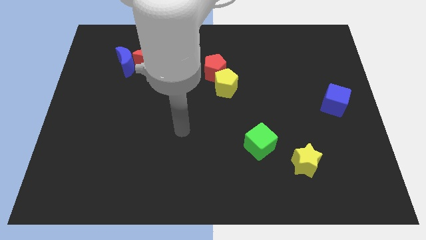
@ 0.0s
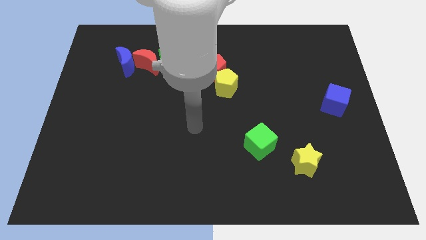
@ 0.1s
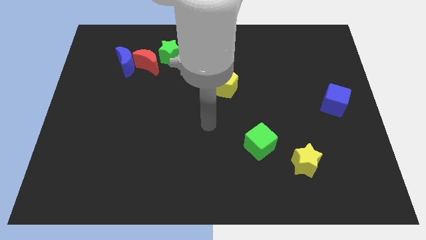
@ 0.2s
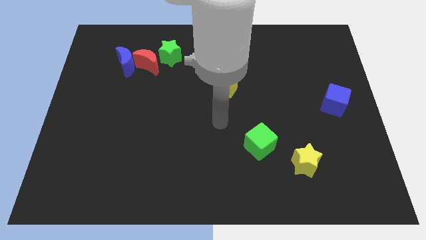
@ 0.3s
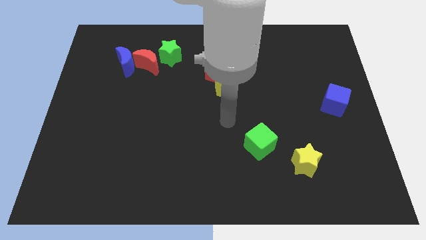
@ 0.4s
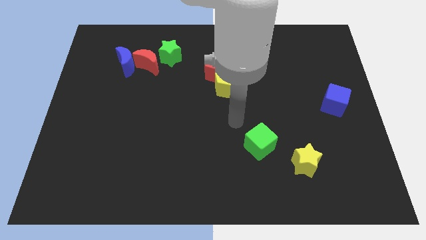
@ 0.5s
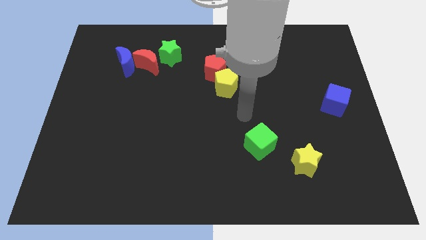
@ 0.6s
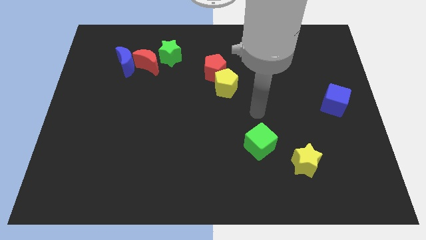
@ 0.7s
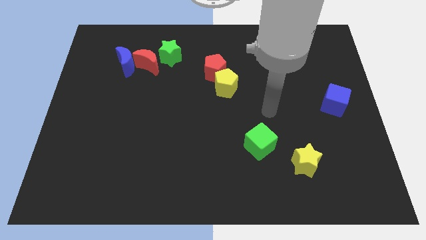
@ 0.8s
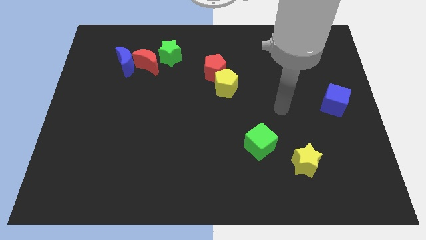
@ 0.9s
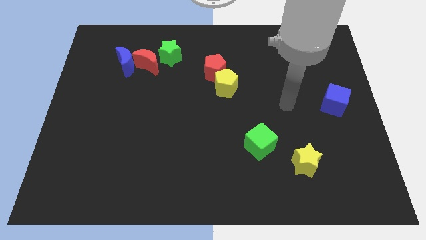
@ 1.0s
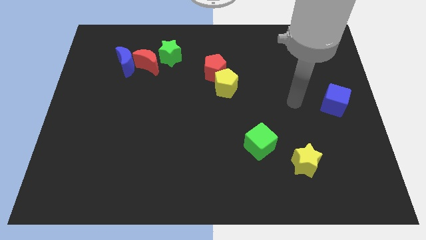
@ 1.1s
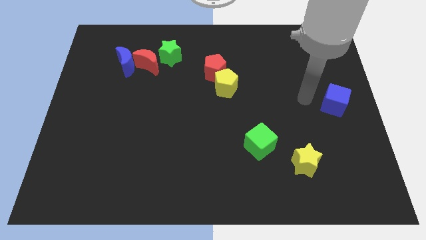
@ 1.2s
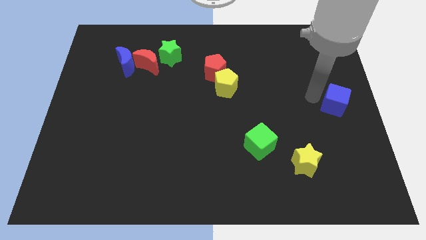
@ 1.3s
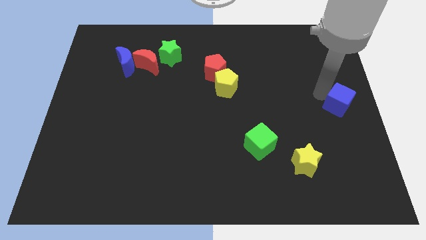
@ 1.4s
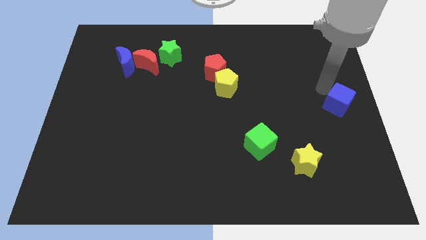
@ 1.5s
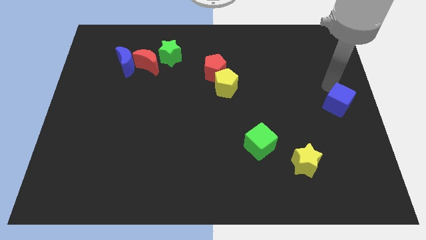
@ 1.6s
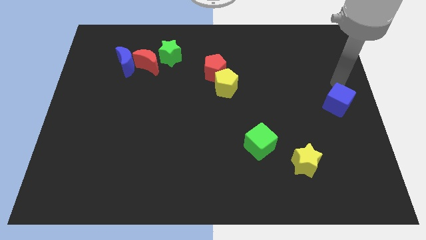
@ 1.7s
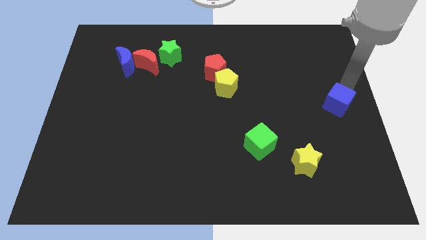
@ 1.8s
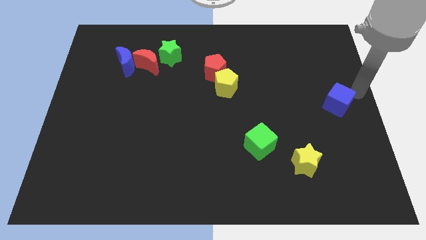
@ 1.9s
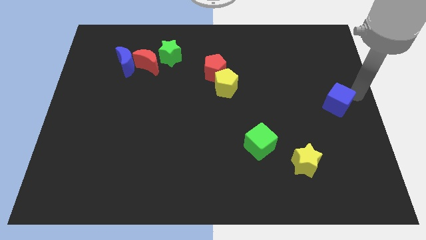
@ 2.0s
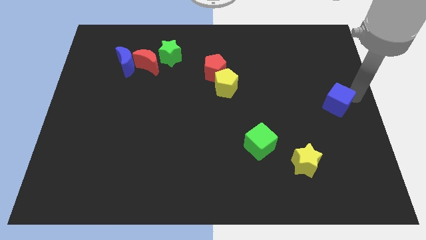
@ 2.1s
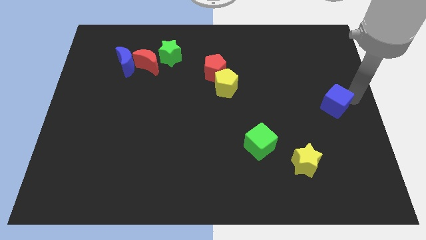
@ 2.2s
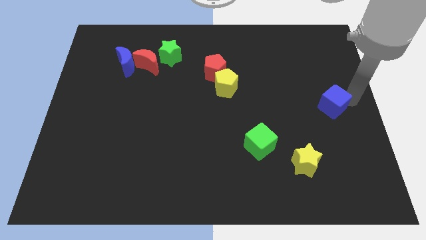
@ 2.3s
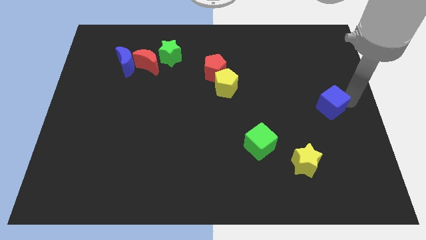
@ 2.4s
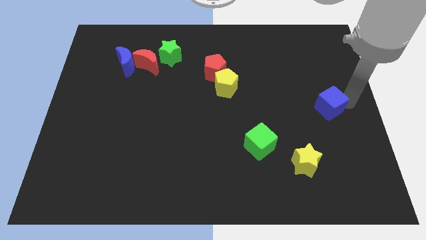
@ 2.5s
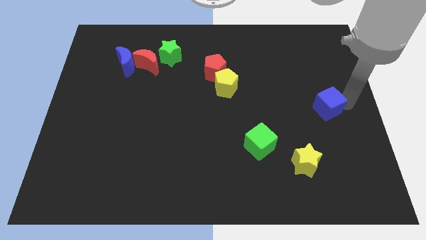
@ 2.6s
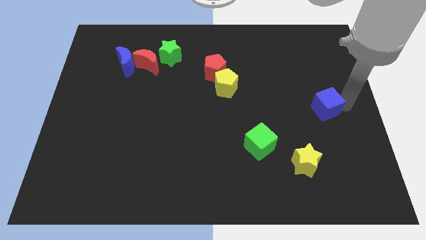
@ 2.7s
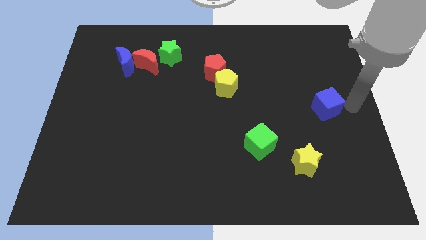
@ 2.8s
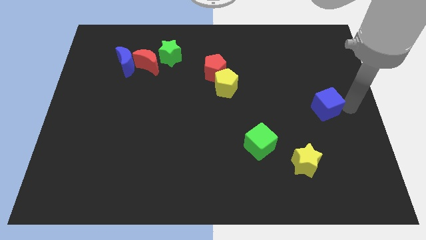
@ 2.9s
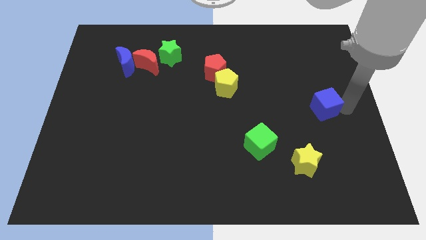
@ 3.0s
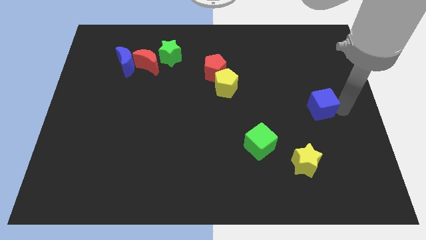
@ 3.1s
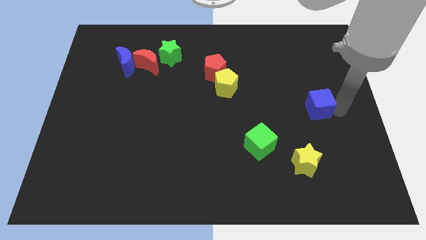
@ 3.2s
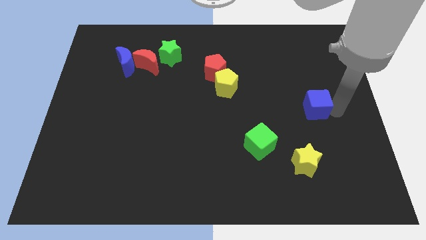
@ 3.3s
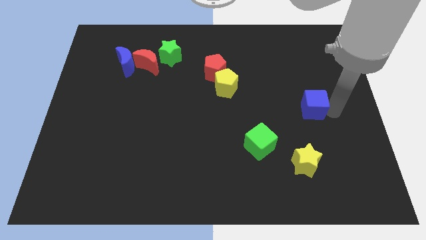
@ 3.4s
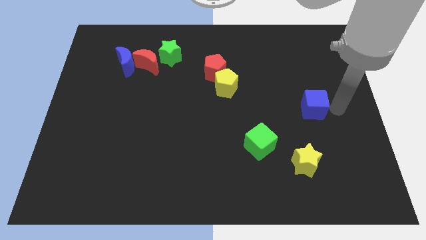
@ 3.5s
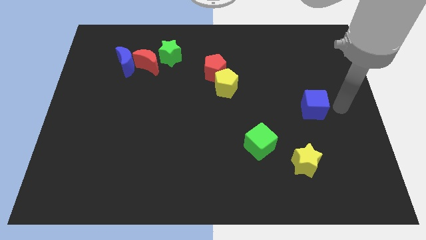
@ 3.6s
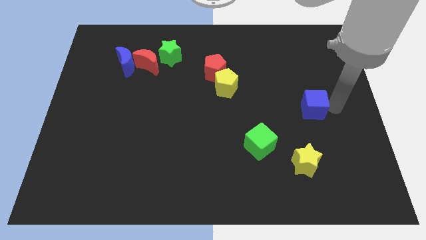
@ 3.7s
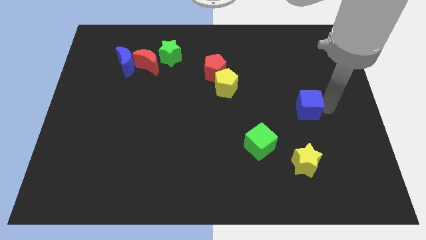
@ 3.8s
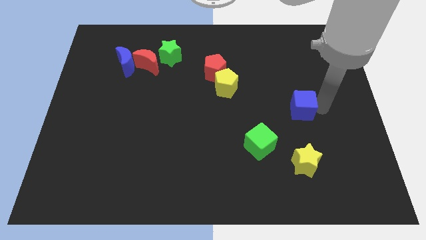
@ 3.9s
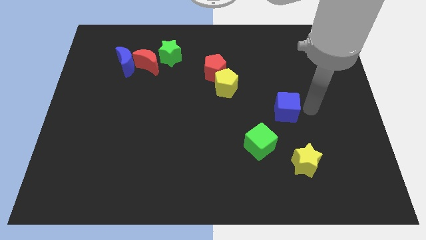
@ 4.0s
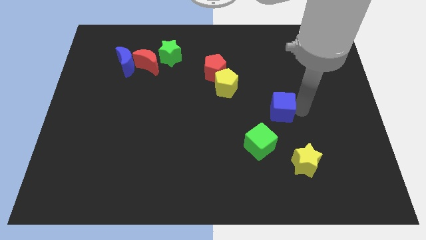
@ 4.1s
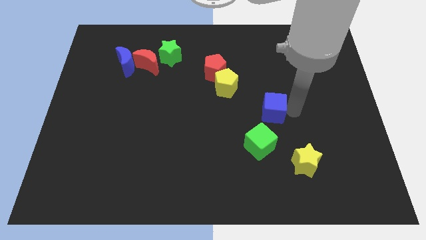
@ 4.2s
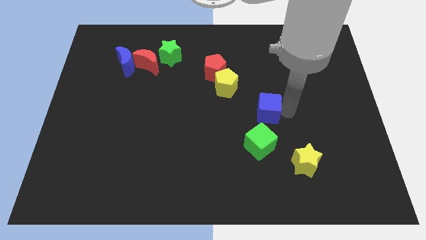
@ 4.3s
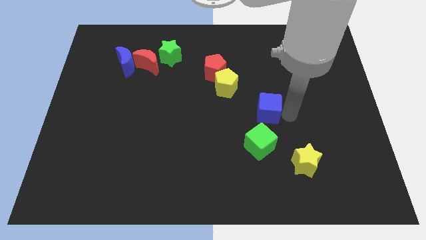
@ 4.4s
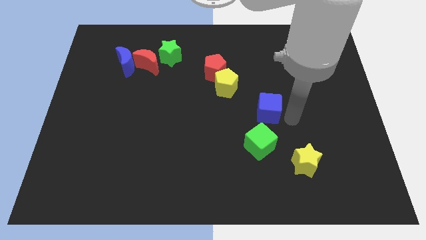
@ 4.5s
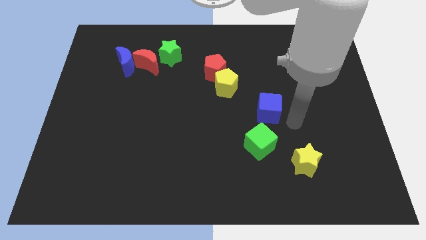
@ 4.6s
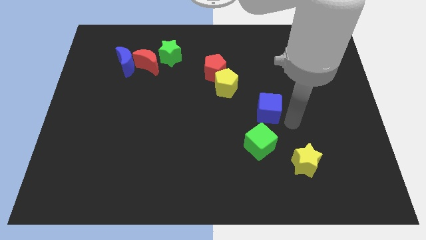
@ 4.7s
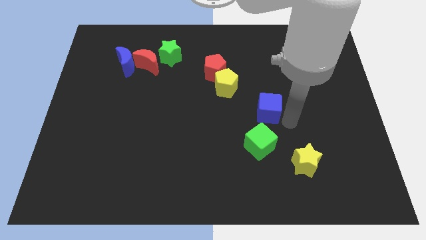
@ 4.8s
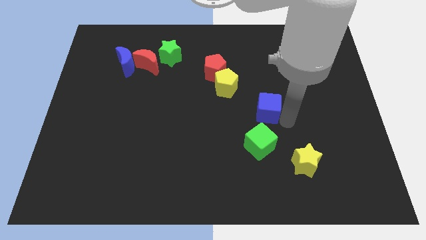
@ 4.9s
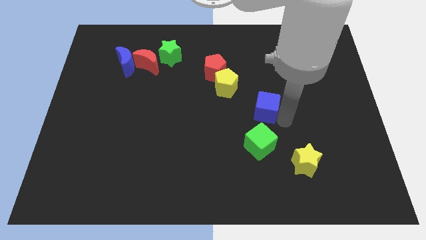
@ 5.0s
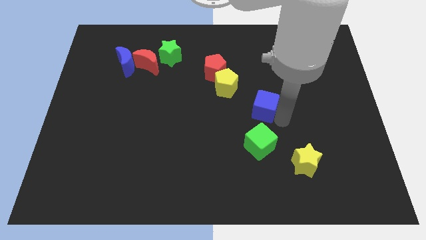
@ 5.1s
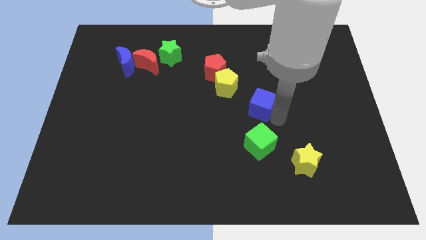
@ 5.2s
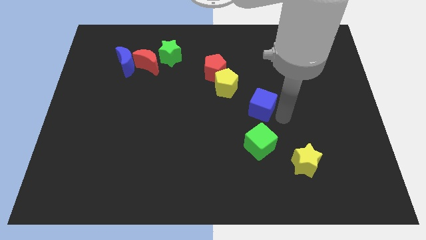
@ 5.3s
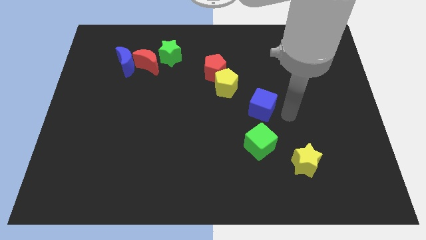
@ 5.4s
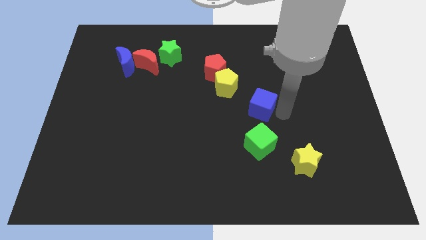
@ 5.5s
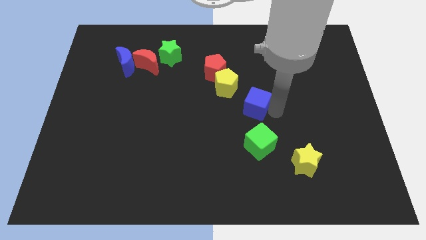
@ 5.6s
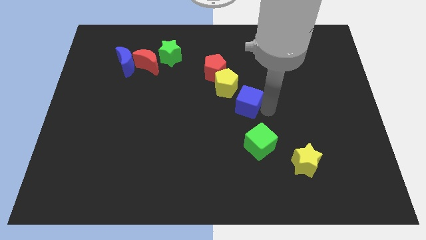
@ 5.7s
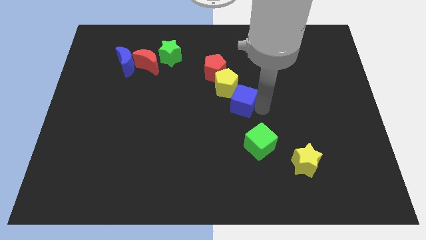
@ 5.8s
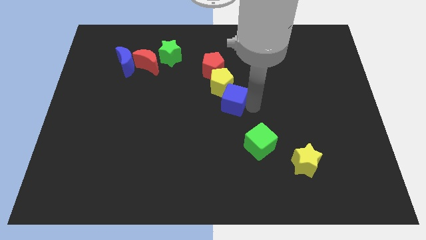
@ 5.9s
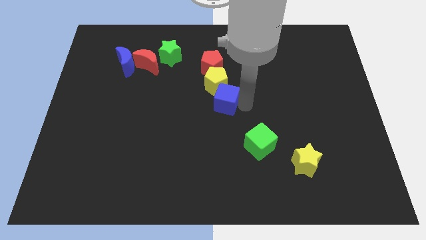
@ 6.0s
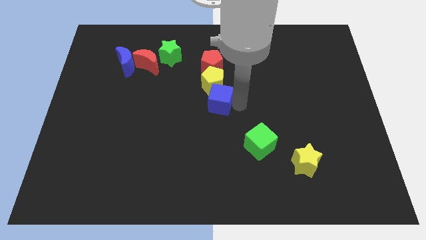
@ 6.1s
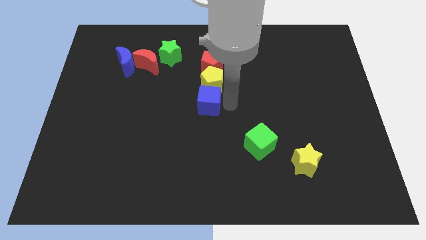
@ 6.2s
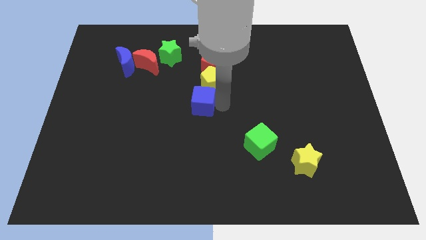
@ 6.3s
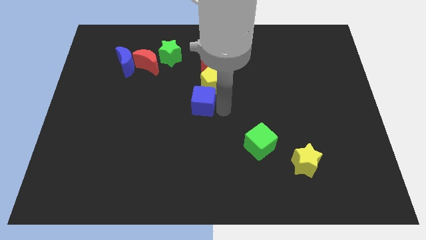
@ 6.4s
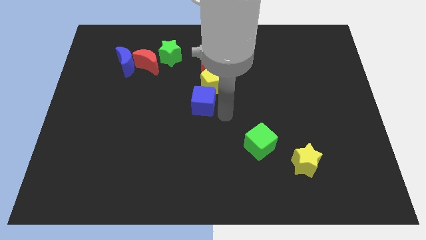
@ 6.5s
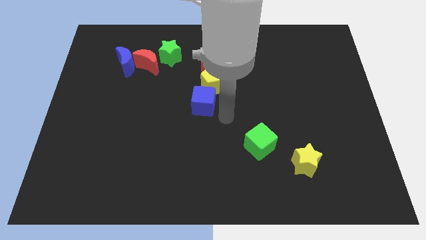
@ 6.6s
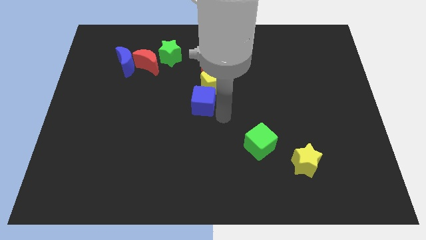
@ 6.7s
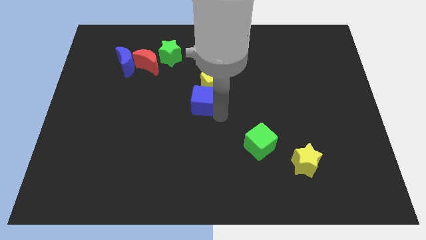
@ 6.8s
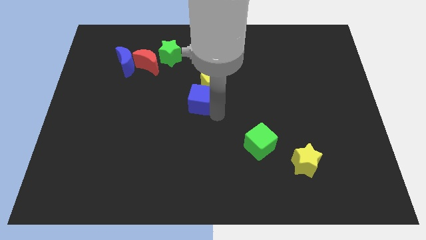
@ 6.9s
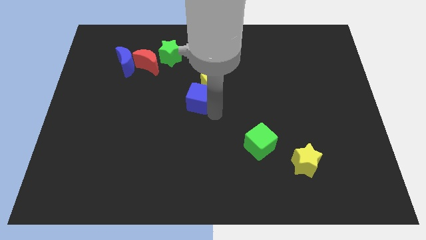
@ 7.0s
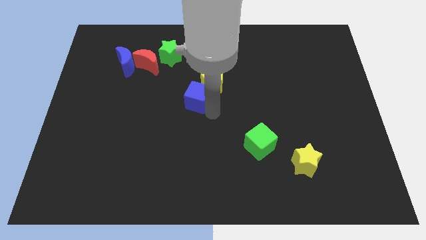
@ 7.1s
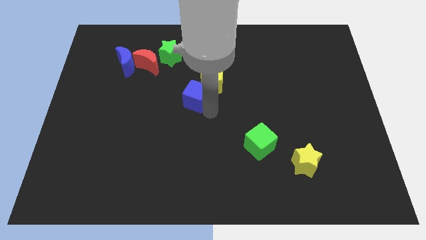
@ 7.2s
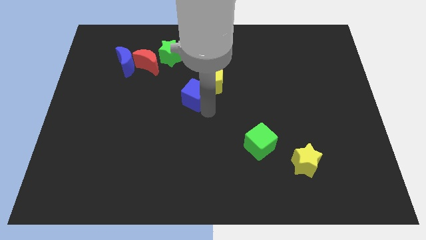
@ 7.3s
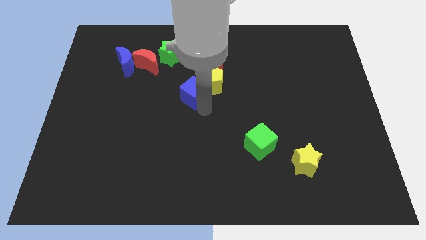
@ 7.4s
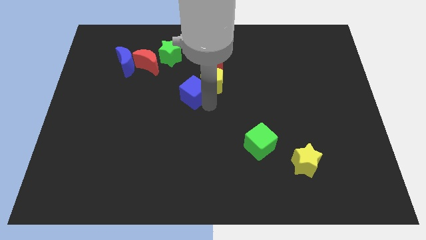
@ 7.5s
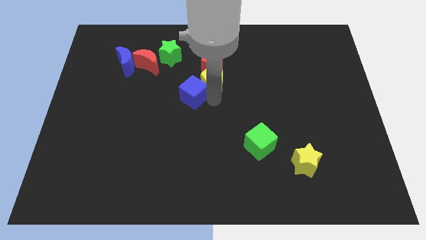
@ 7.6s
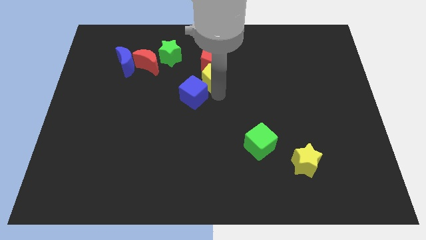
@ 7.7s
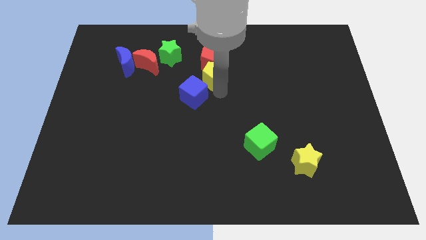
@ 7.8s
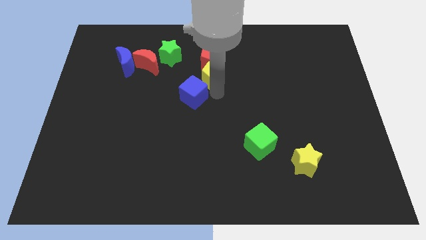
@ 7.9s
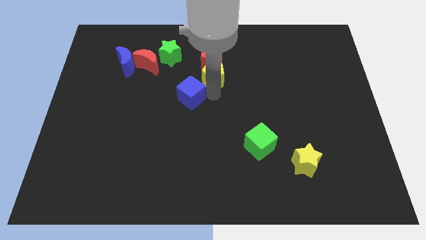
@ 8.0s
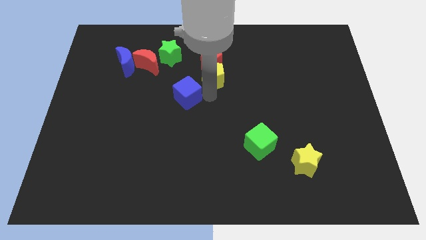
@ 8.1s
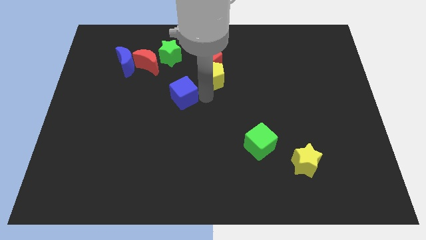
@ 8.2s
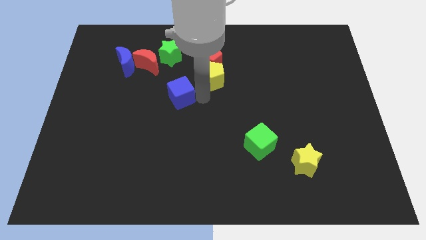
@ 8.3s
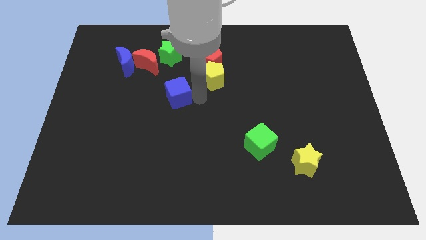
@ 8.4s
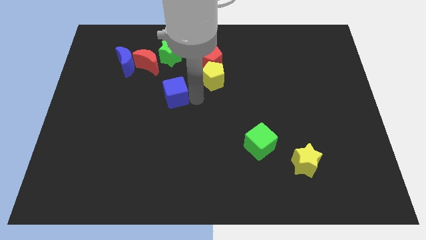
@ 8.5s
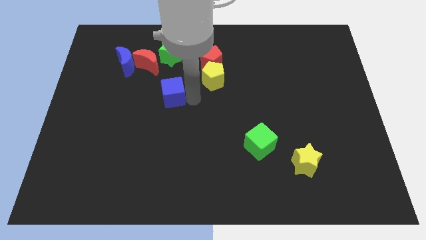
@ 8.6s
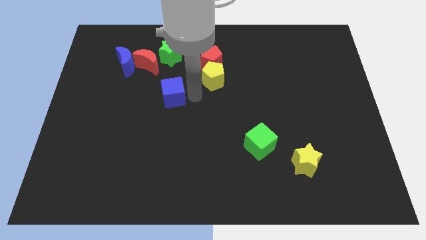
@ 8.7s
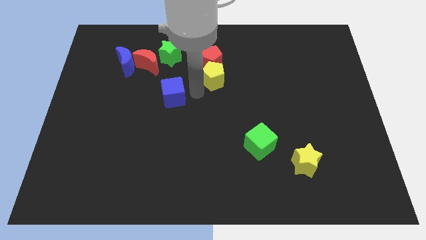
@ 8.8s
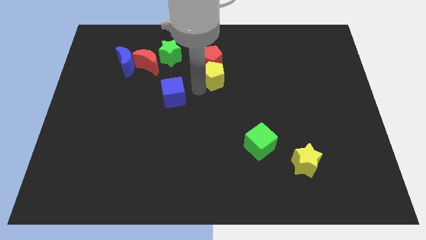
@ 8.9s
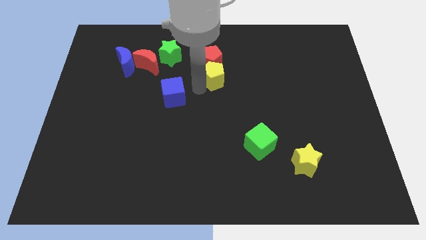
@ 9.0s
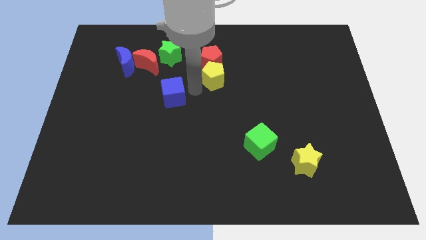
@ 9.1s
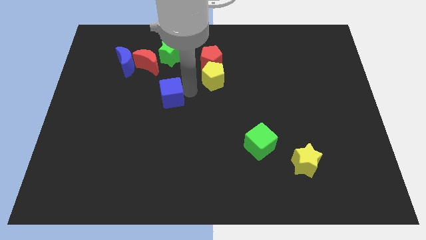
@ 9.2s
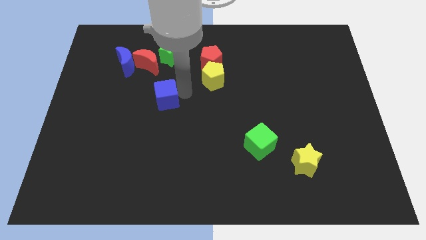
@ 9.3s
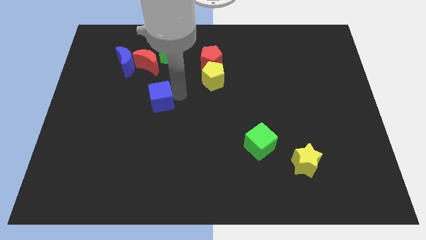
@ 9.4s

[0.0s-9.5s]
put the blue cube below the red moon
